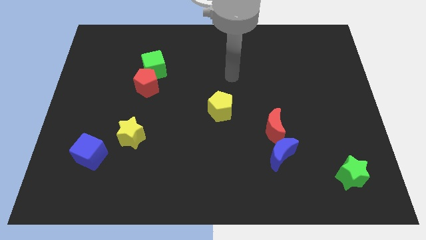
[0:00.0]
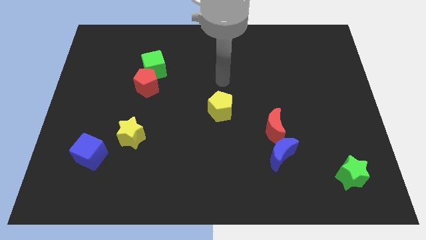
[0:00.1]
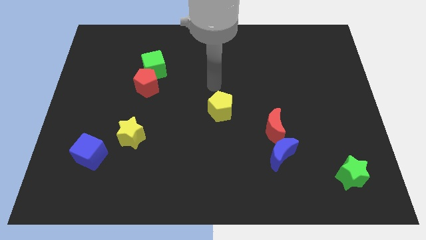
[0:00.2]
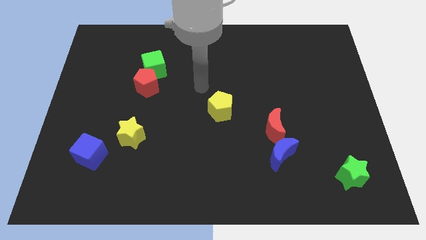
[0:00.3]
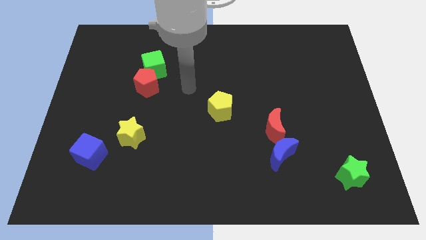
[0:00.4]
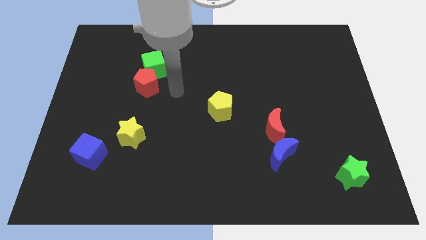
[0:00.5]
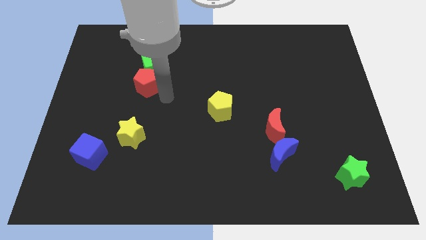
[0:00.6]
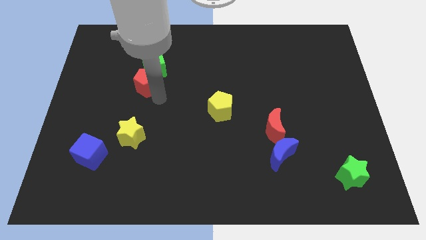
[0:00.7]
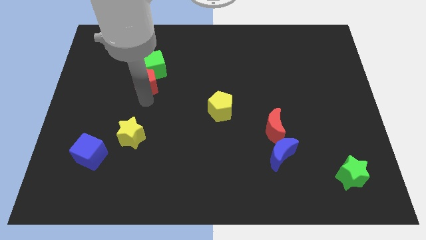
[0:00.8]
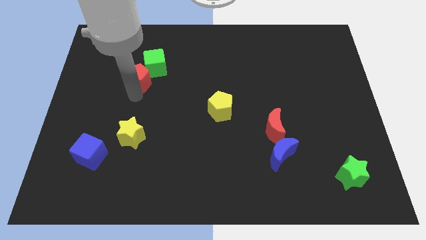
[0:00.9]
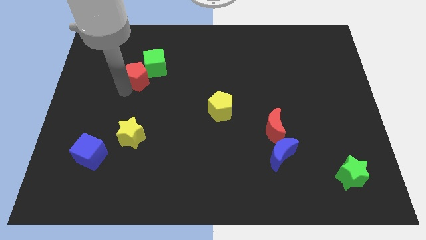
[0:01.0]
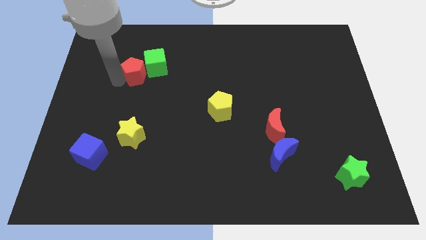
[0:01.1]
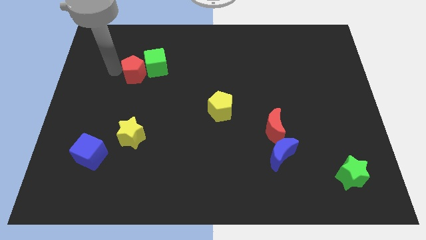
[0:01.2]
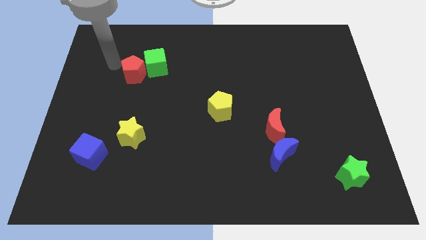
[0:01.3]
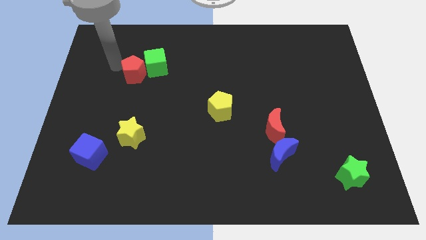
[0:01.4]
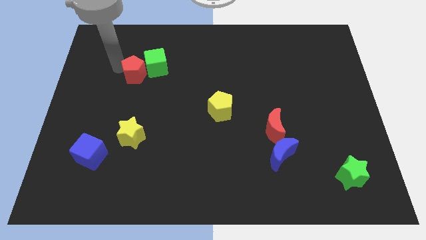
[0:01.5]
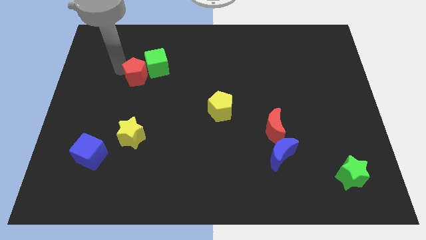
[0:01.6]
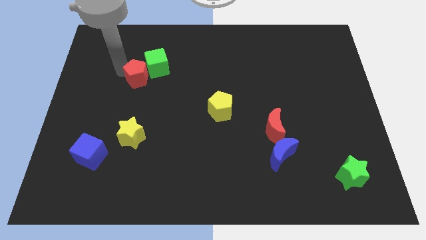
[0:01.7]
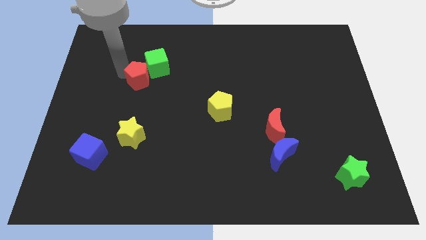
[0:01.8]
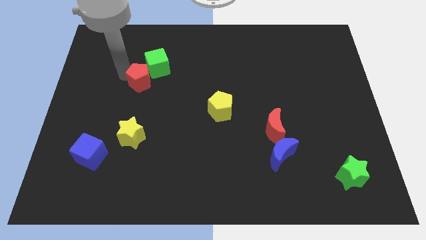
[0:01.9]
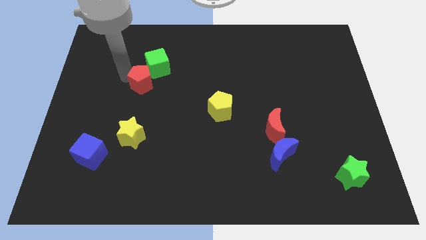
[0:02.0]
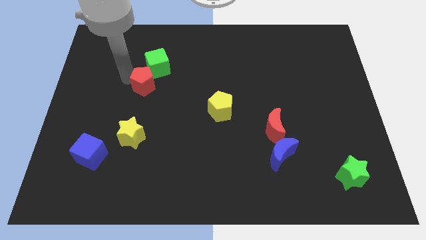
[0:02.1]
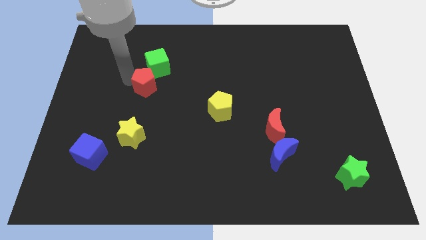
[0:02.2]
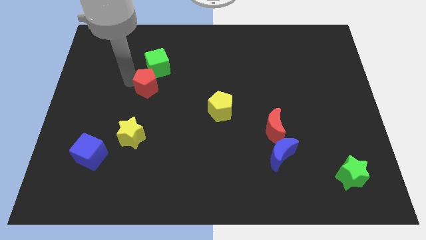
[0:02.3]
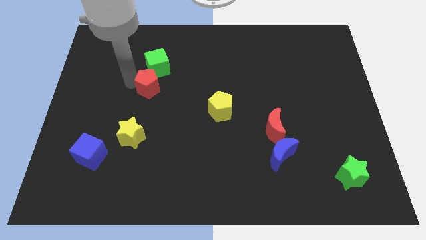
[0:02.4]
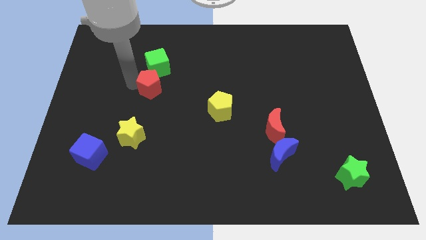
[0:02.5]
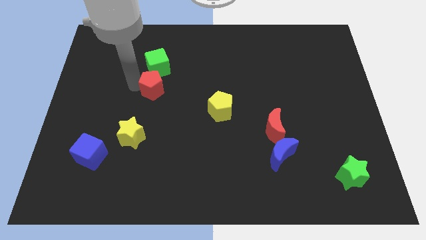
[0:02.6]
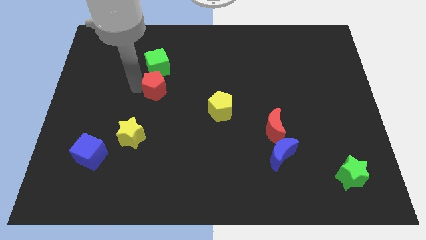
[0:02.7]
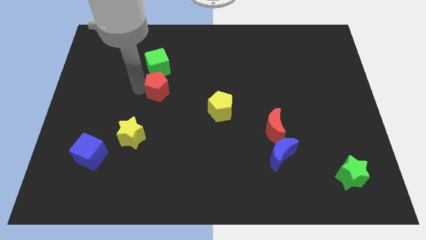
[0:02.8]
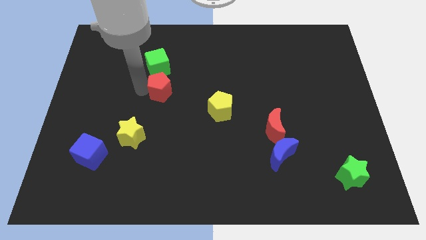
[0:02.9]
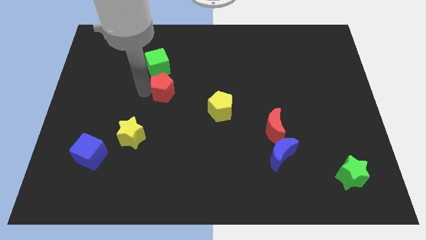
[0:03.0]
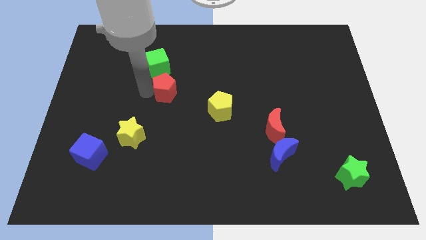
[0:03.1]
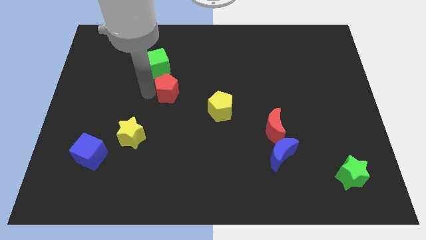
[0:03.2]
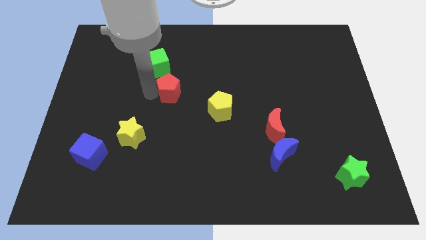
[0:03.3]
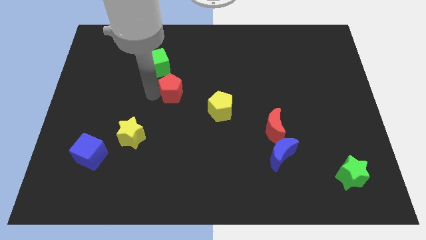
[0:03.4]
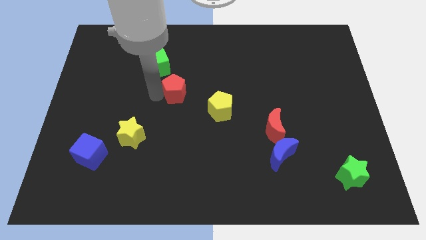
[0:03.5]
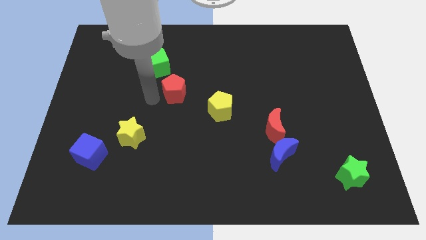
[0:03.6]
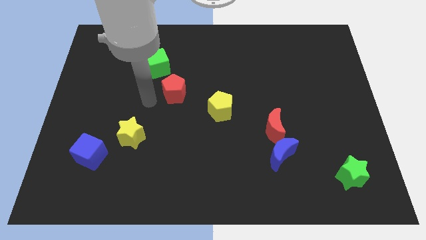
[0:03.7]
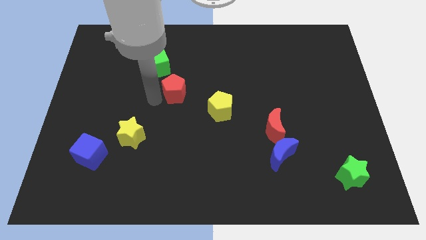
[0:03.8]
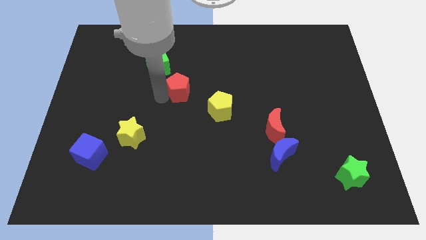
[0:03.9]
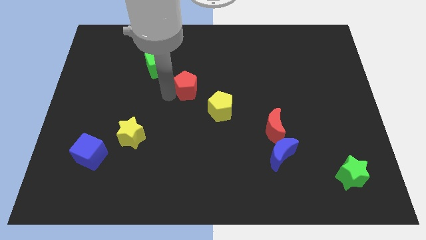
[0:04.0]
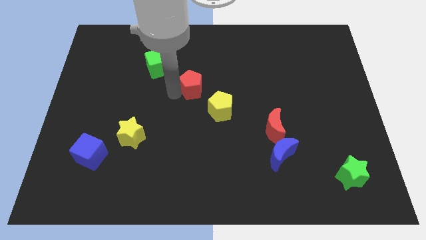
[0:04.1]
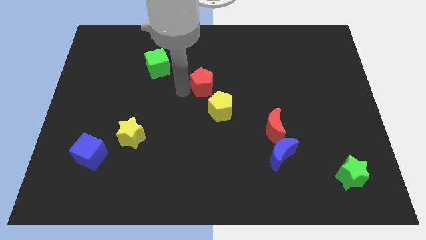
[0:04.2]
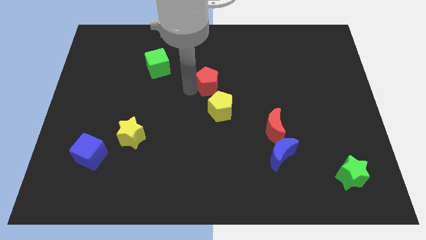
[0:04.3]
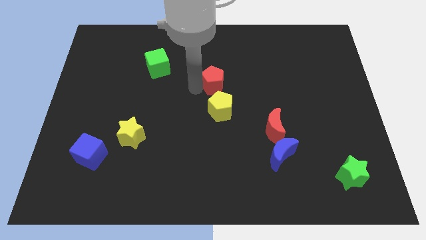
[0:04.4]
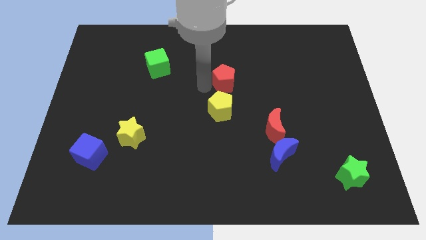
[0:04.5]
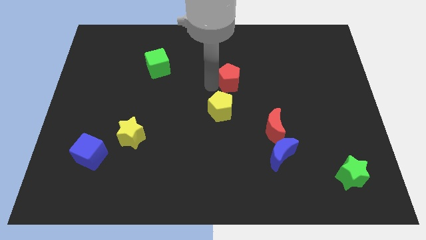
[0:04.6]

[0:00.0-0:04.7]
move the red pentagon to the right

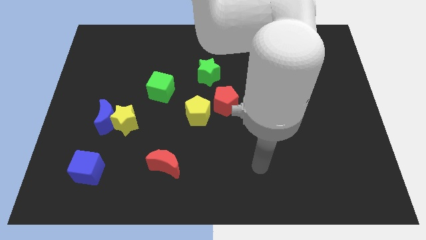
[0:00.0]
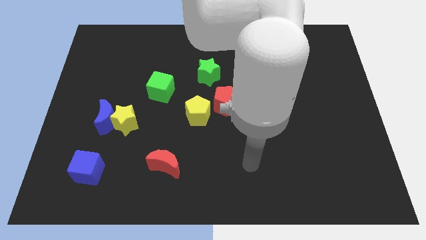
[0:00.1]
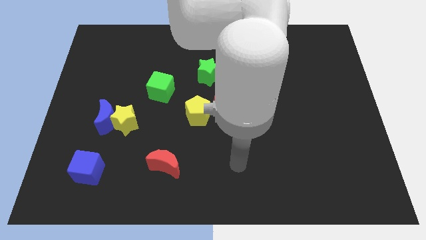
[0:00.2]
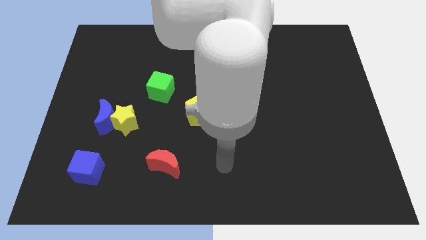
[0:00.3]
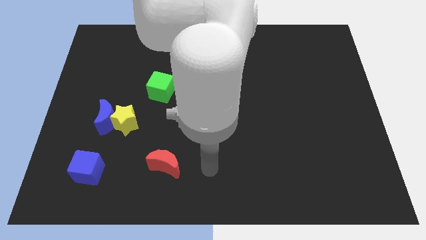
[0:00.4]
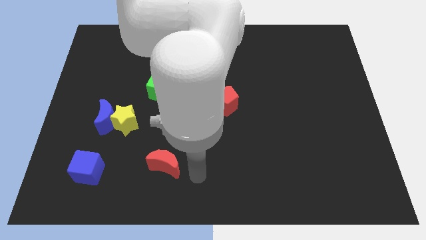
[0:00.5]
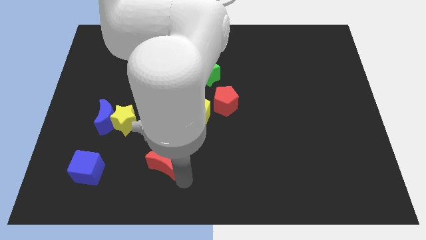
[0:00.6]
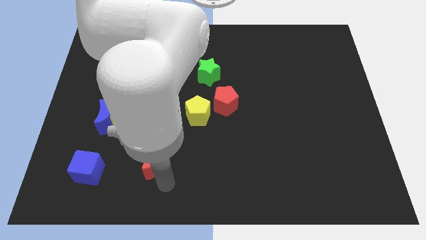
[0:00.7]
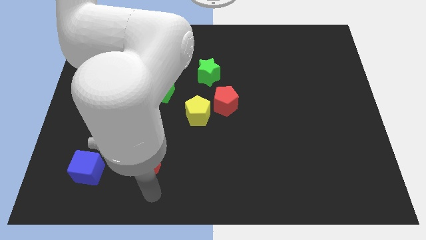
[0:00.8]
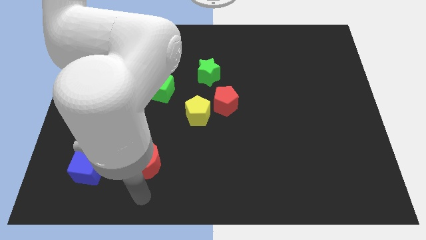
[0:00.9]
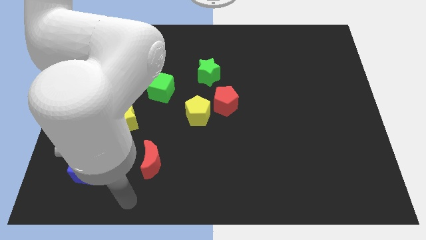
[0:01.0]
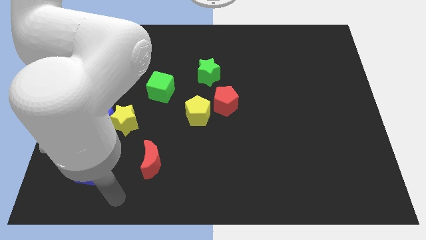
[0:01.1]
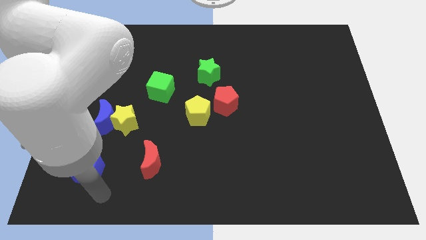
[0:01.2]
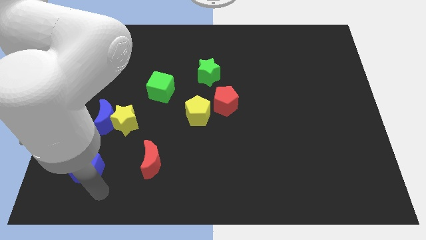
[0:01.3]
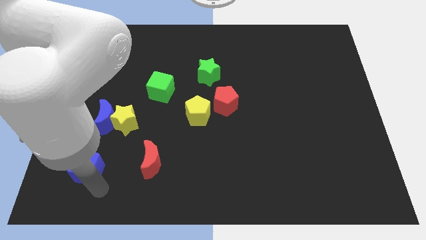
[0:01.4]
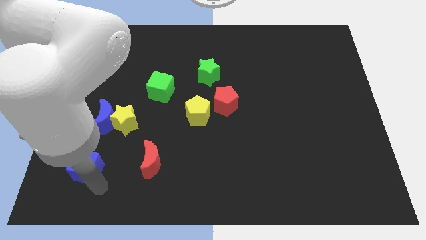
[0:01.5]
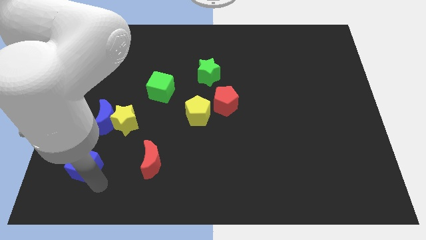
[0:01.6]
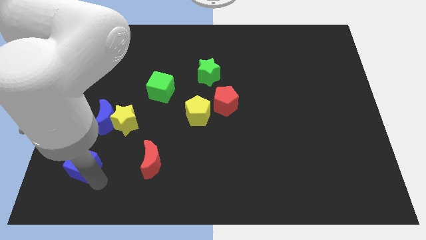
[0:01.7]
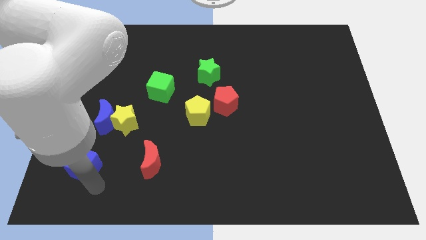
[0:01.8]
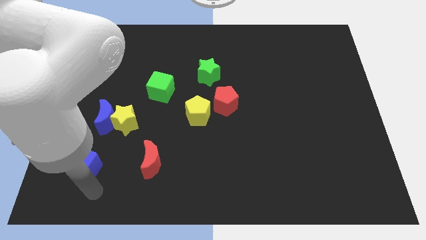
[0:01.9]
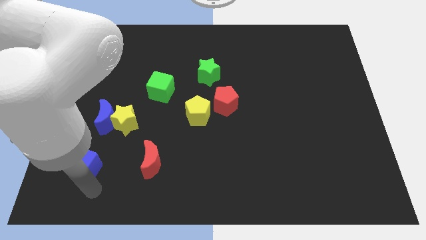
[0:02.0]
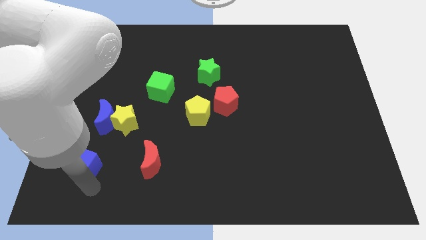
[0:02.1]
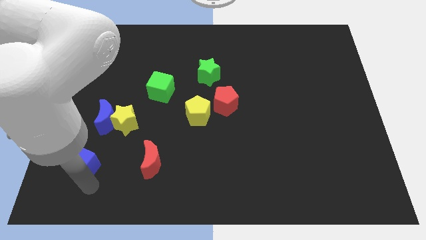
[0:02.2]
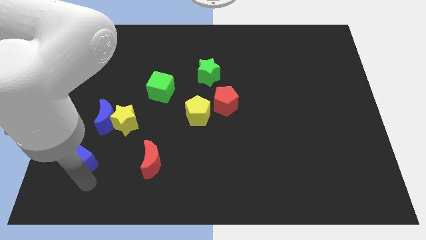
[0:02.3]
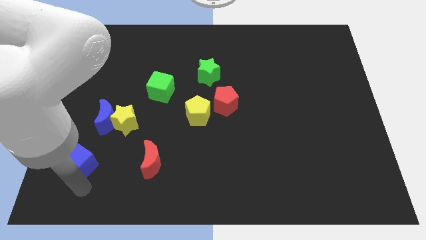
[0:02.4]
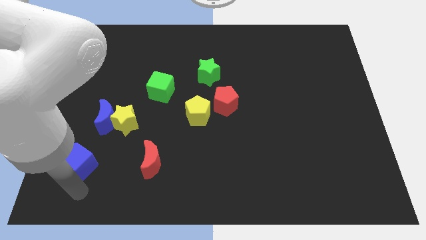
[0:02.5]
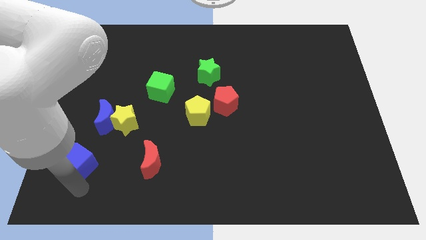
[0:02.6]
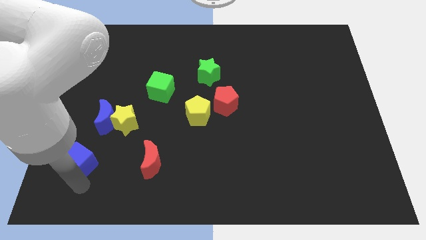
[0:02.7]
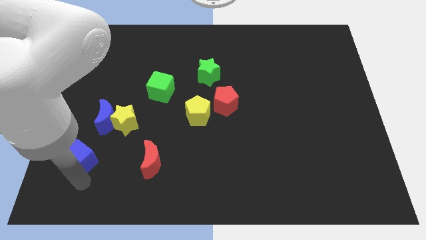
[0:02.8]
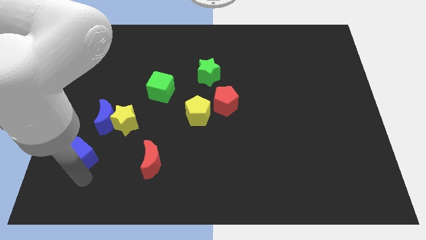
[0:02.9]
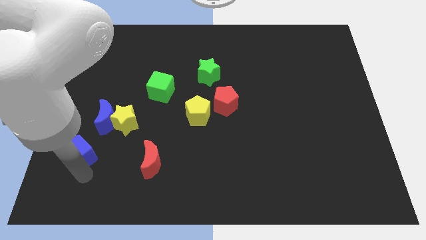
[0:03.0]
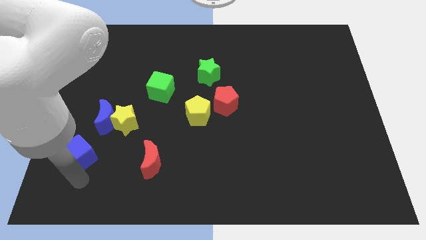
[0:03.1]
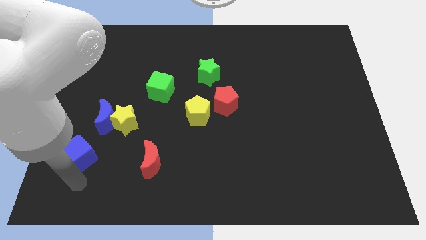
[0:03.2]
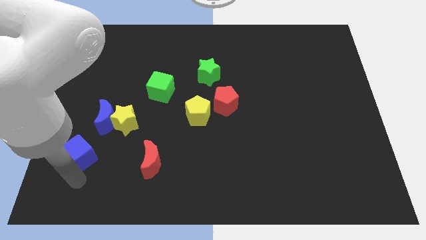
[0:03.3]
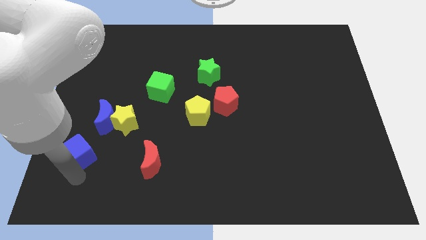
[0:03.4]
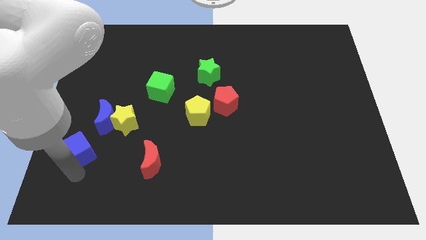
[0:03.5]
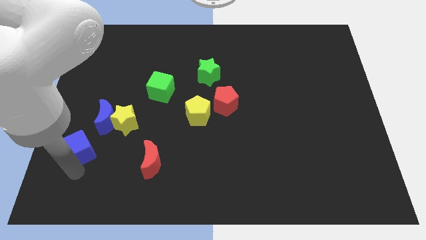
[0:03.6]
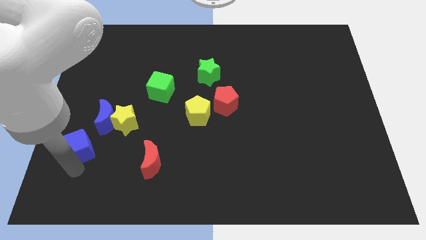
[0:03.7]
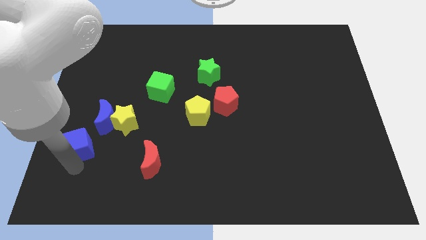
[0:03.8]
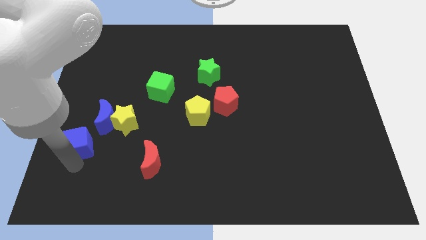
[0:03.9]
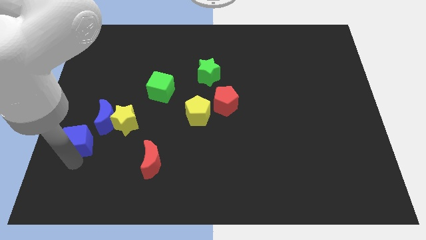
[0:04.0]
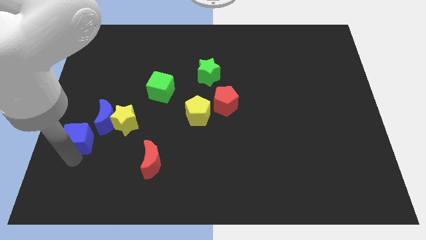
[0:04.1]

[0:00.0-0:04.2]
move the blue cube up a little bit
